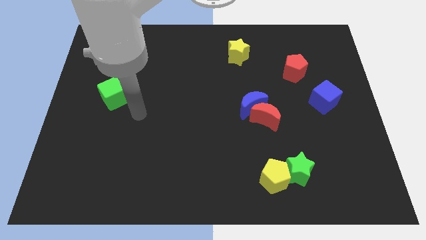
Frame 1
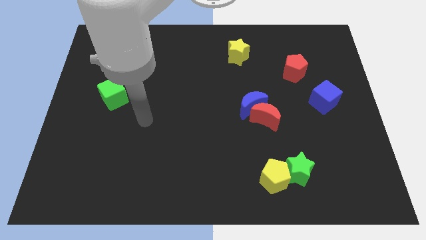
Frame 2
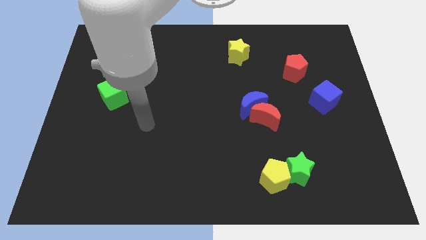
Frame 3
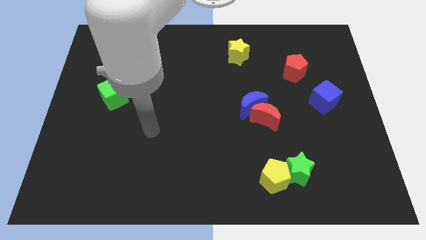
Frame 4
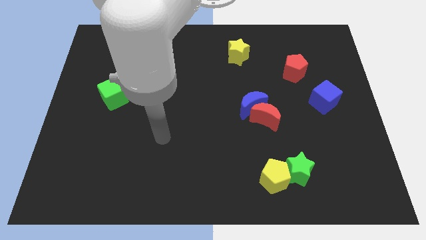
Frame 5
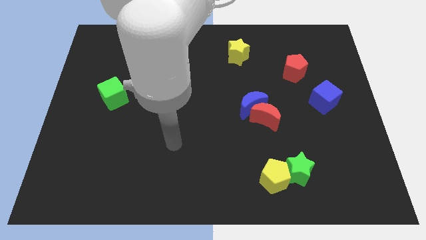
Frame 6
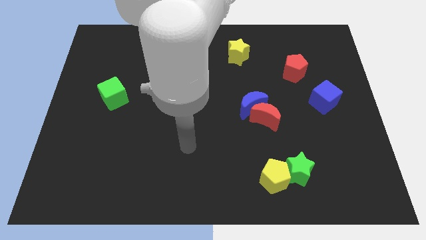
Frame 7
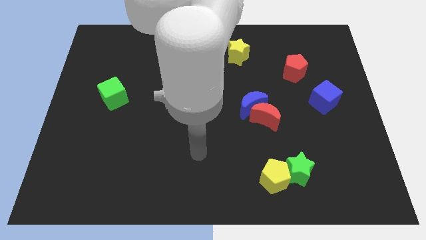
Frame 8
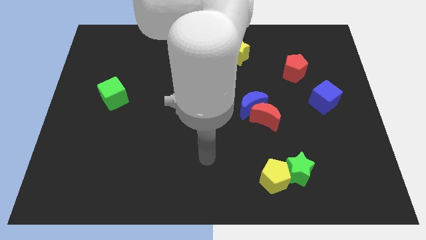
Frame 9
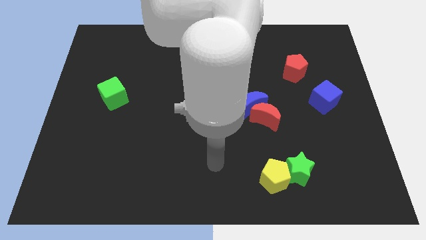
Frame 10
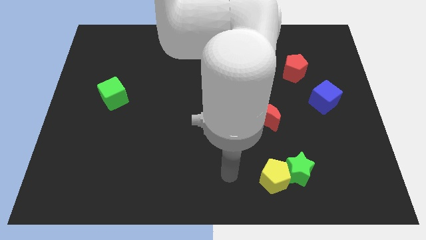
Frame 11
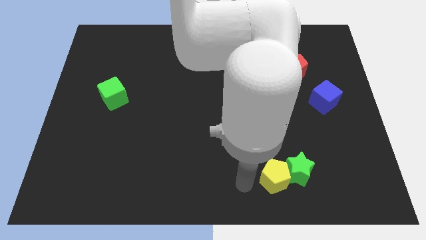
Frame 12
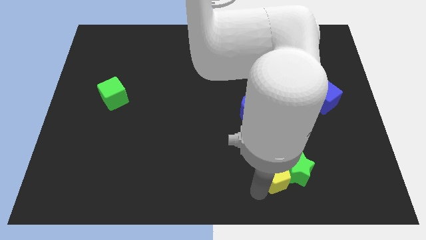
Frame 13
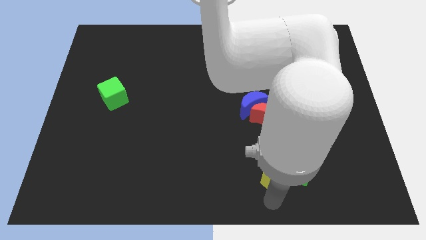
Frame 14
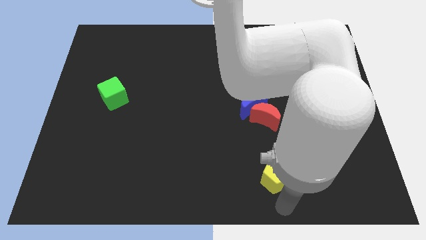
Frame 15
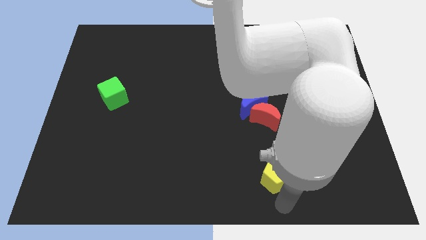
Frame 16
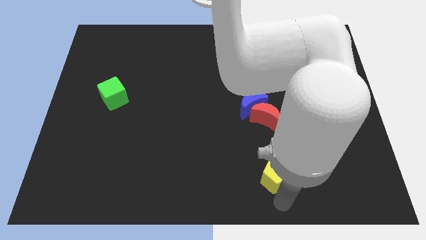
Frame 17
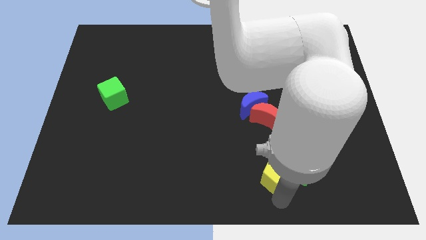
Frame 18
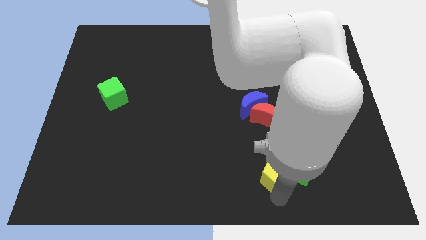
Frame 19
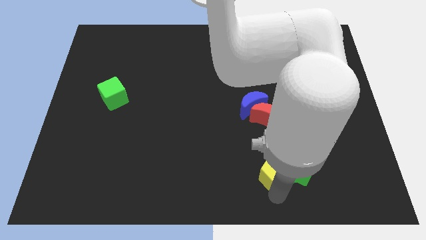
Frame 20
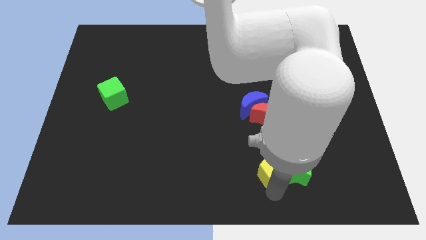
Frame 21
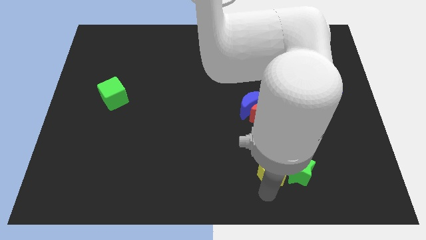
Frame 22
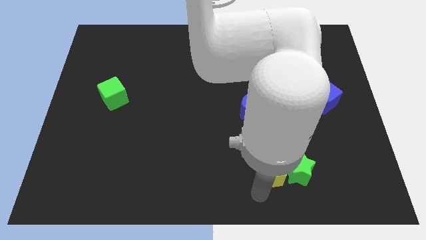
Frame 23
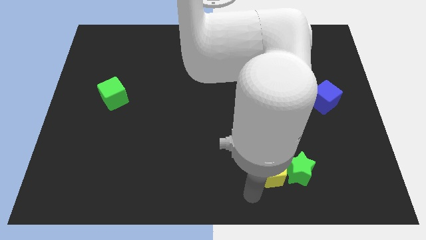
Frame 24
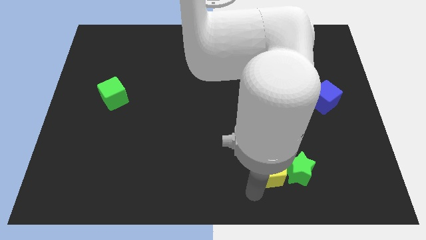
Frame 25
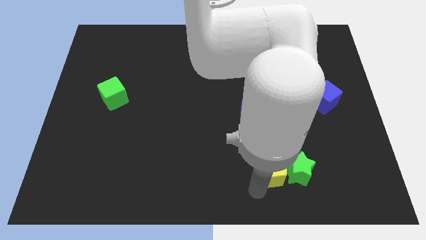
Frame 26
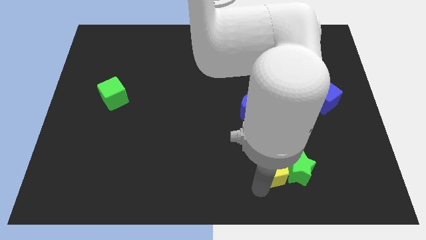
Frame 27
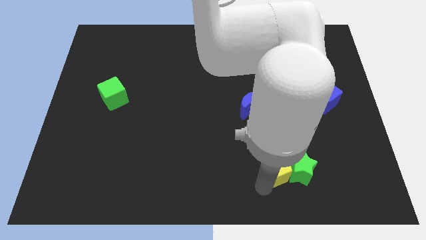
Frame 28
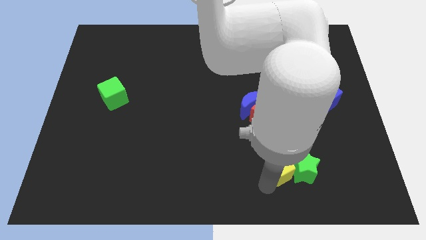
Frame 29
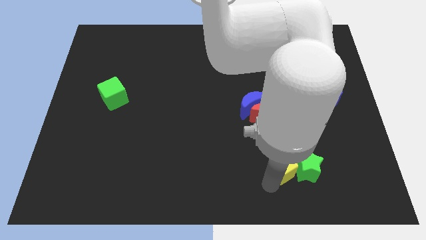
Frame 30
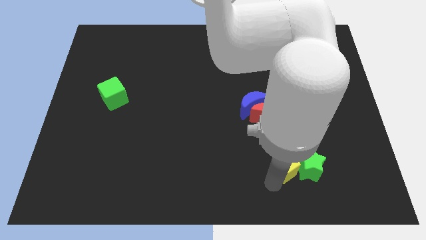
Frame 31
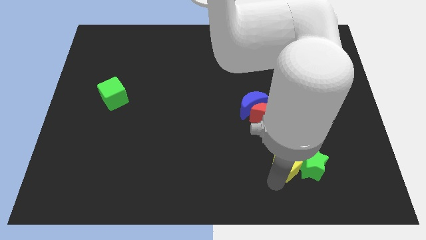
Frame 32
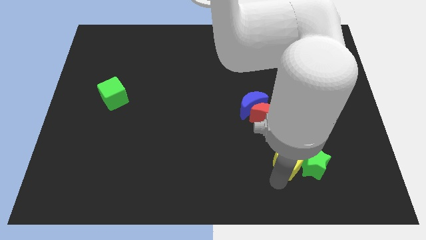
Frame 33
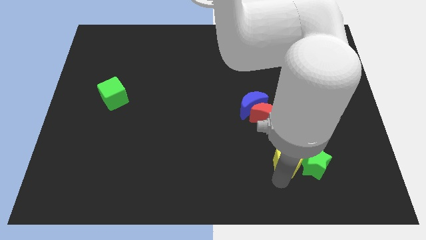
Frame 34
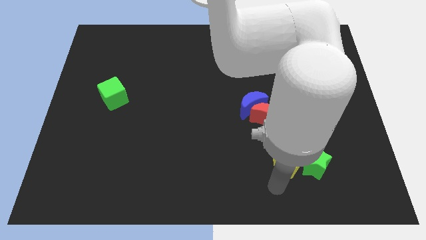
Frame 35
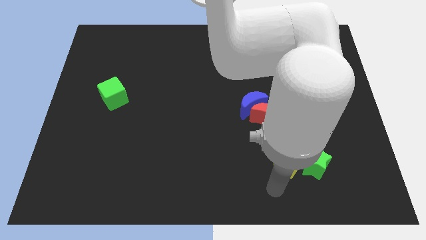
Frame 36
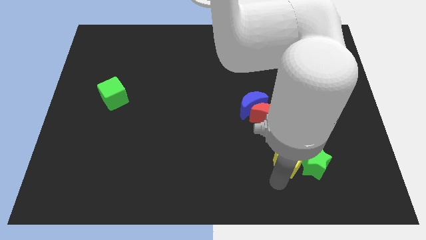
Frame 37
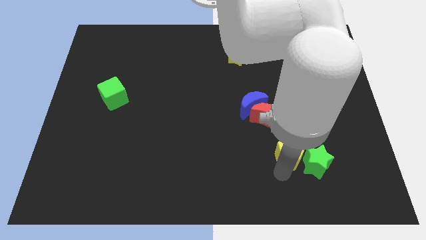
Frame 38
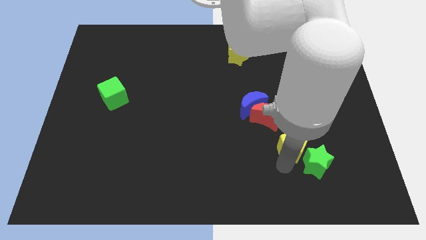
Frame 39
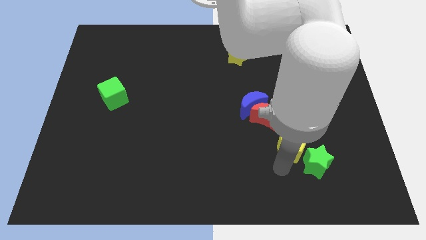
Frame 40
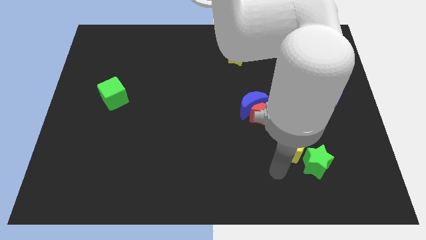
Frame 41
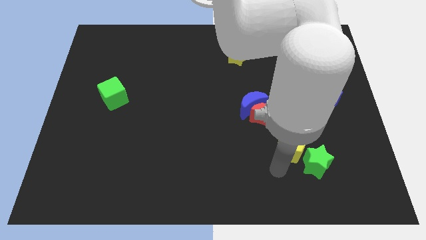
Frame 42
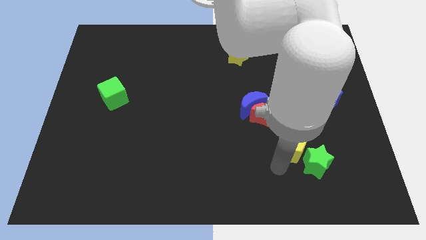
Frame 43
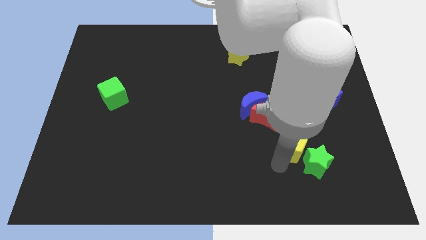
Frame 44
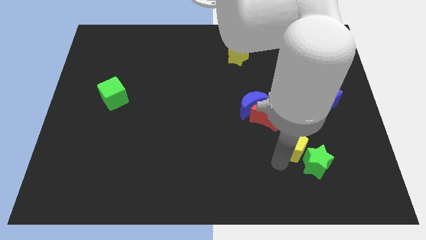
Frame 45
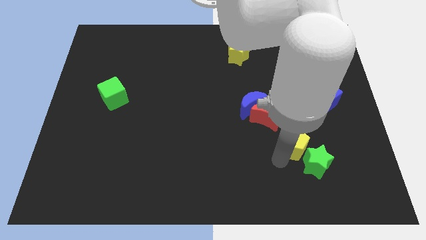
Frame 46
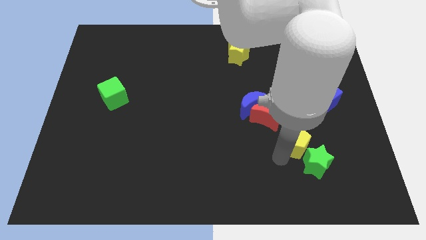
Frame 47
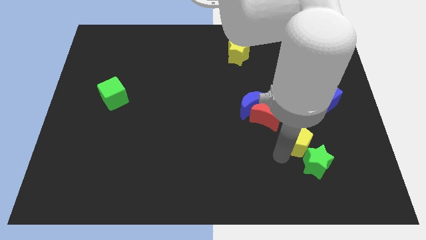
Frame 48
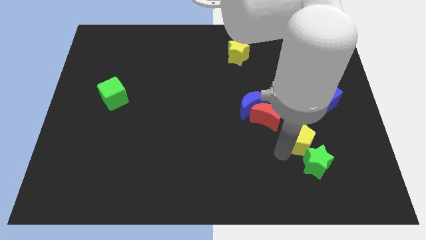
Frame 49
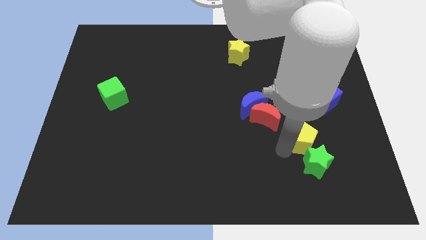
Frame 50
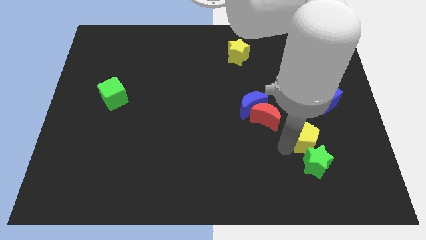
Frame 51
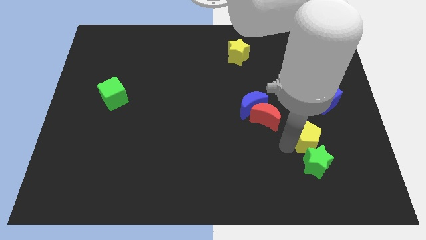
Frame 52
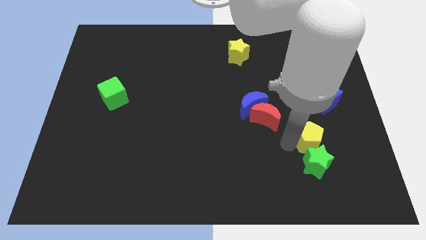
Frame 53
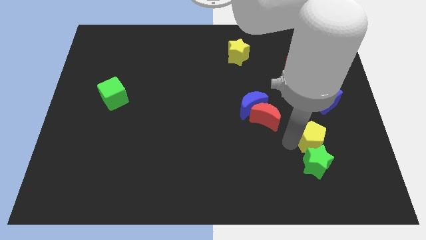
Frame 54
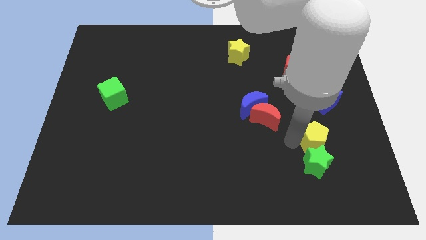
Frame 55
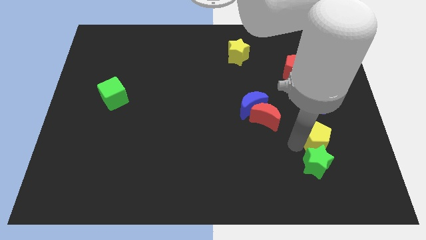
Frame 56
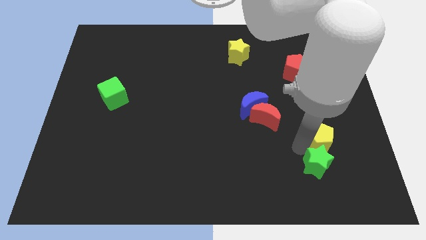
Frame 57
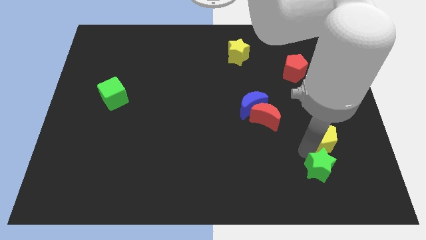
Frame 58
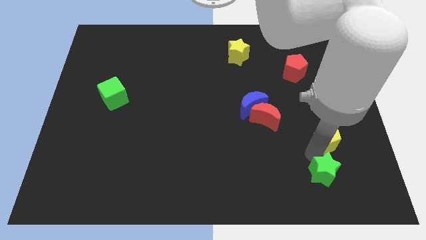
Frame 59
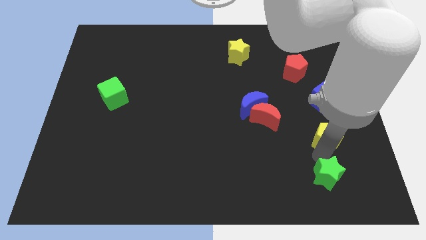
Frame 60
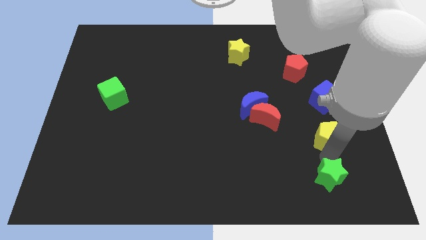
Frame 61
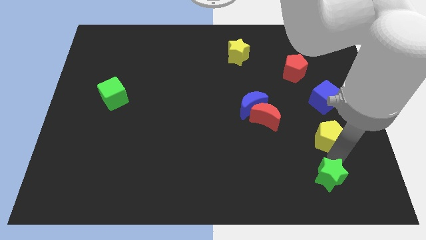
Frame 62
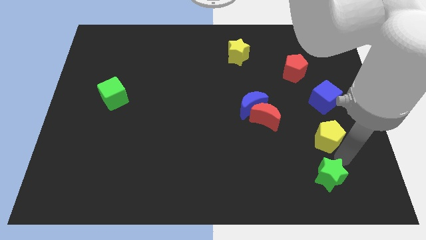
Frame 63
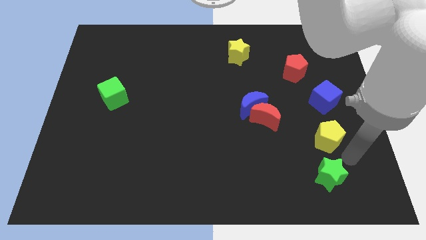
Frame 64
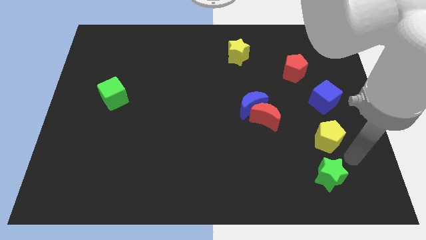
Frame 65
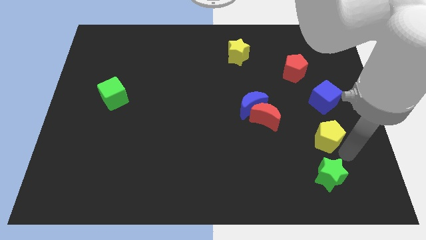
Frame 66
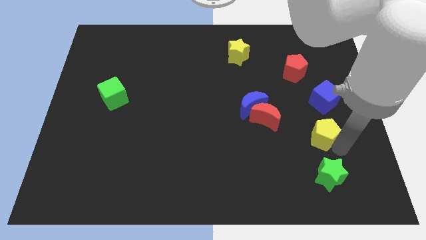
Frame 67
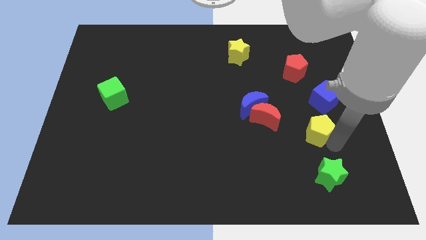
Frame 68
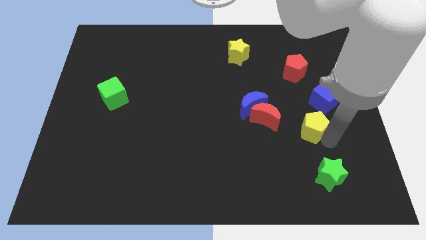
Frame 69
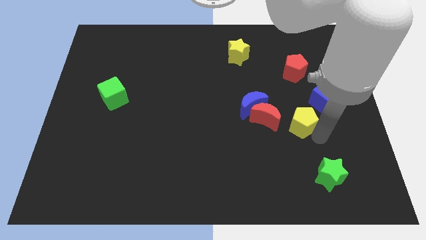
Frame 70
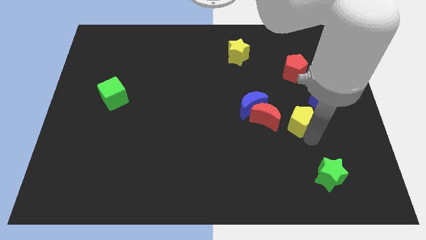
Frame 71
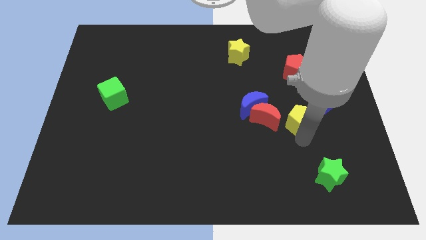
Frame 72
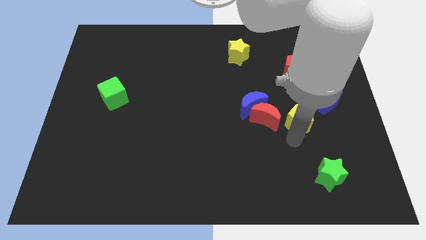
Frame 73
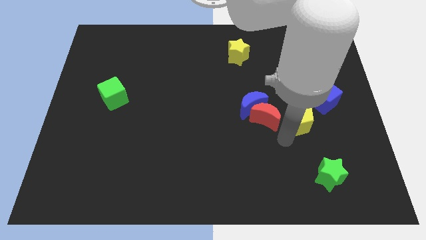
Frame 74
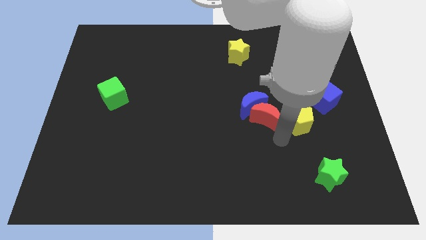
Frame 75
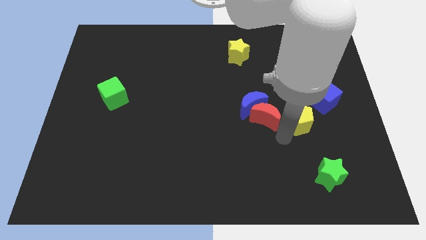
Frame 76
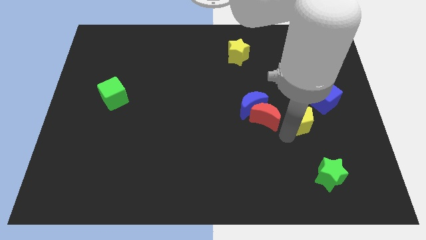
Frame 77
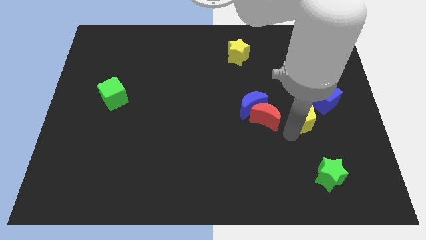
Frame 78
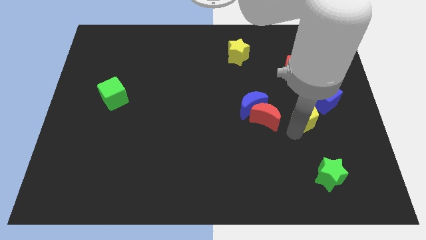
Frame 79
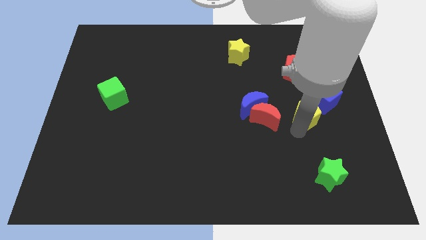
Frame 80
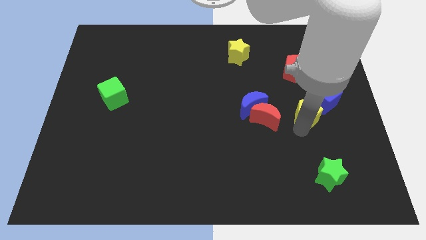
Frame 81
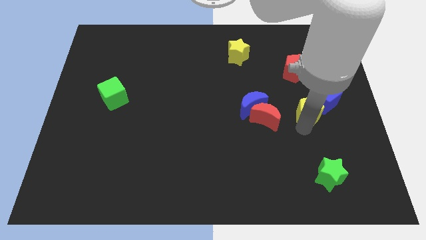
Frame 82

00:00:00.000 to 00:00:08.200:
move the yellow pentagon close to the blue cube

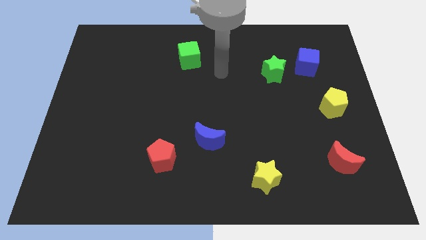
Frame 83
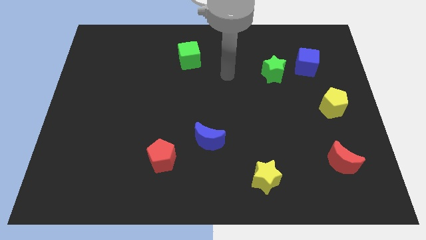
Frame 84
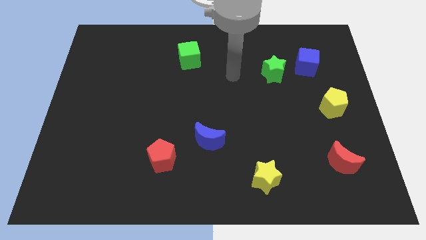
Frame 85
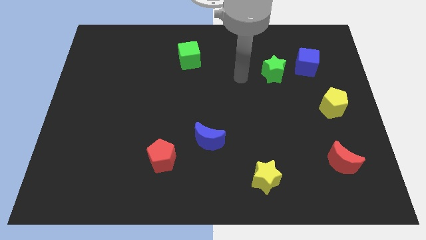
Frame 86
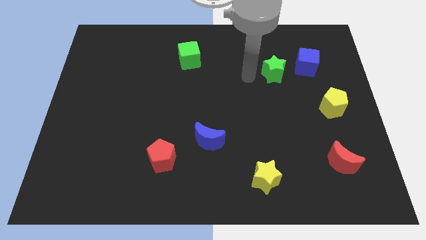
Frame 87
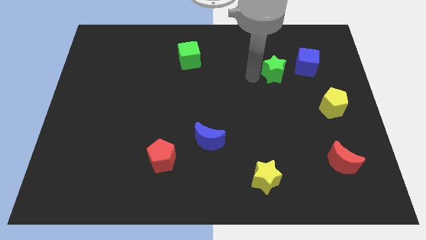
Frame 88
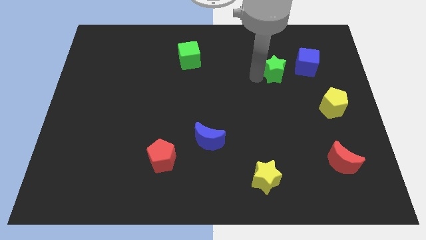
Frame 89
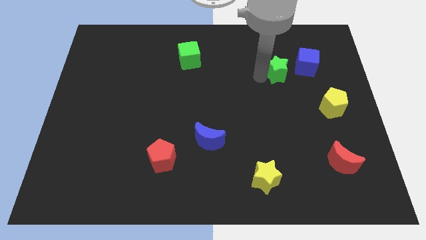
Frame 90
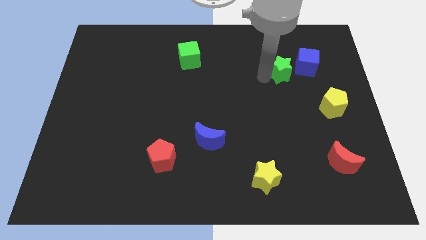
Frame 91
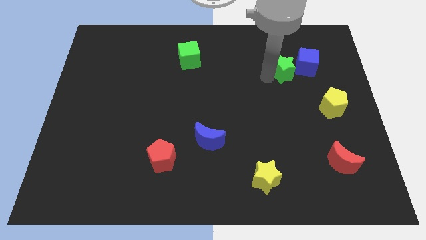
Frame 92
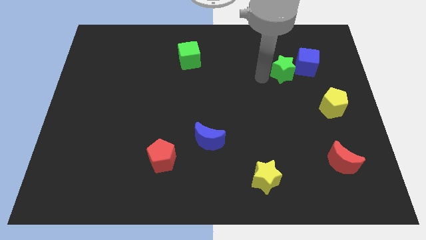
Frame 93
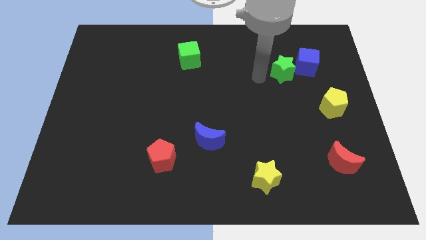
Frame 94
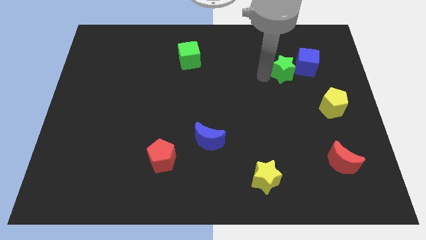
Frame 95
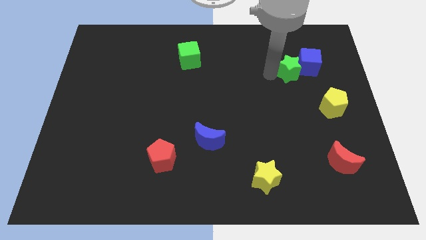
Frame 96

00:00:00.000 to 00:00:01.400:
slide the green star next to the blue cube
